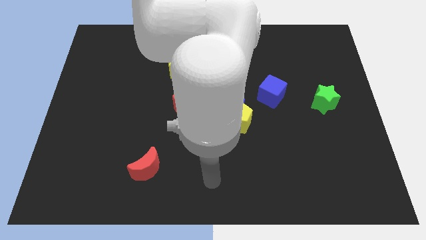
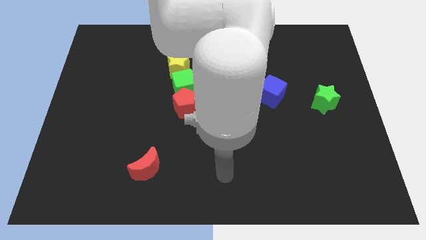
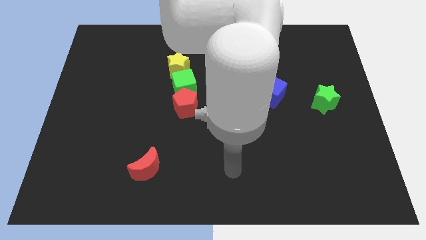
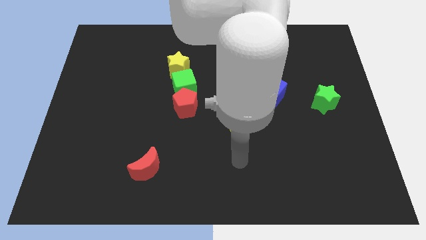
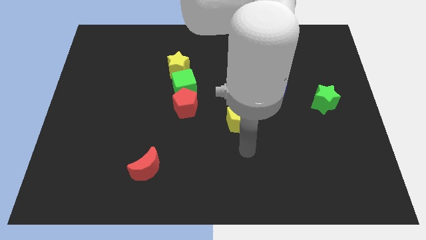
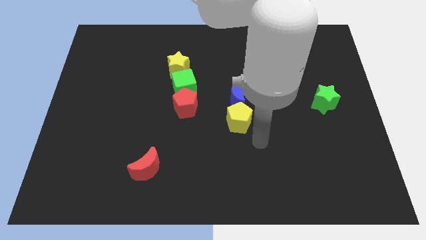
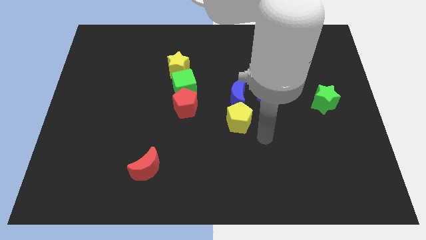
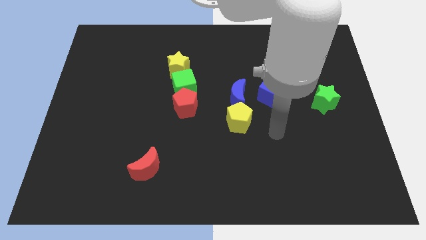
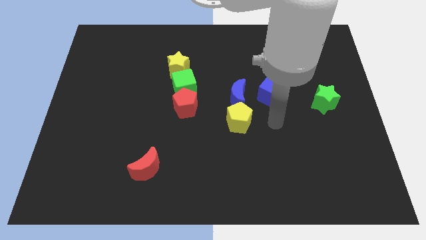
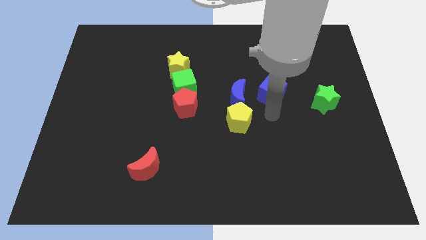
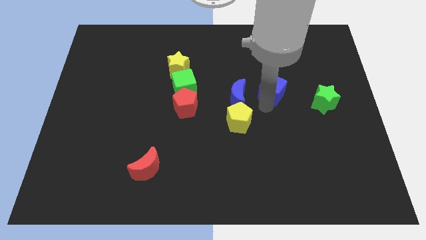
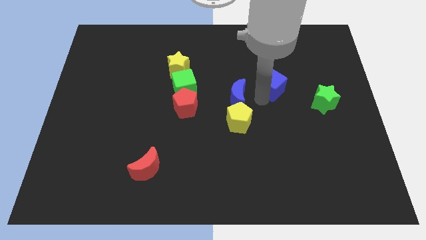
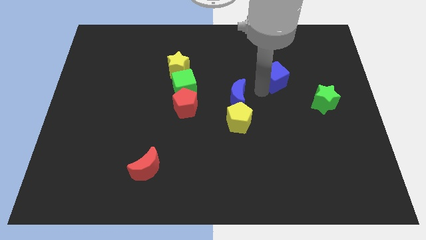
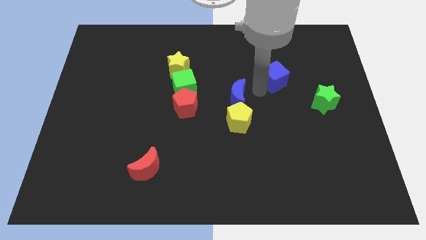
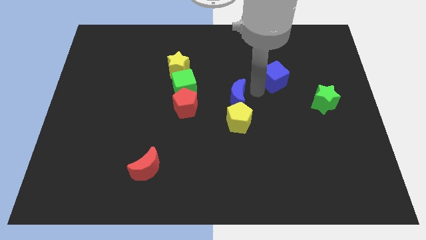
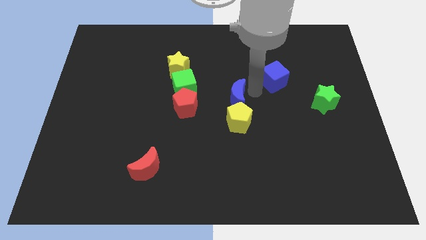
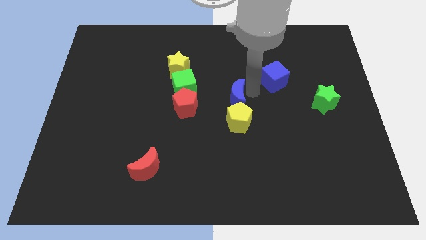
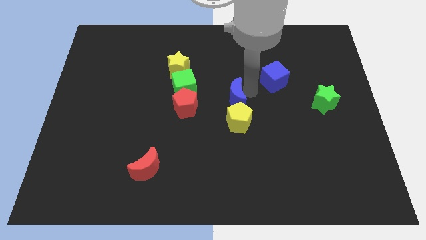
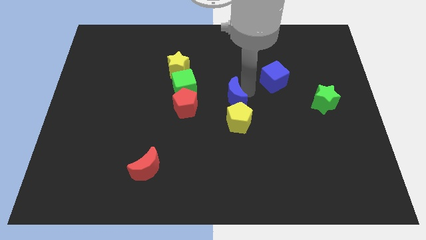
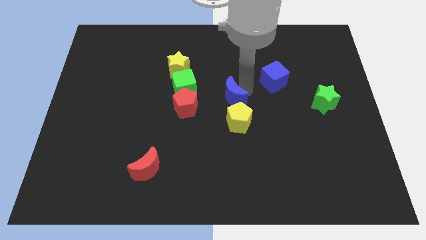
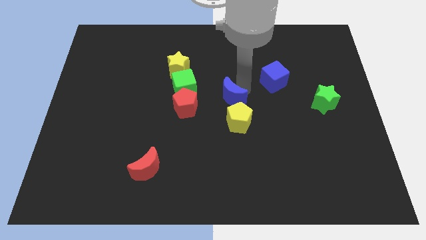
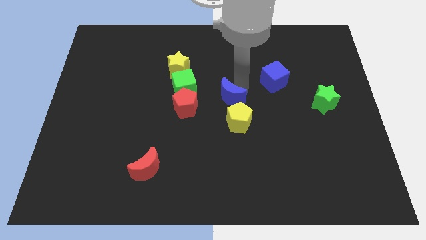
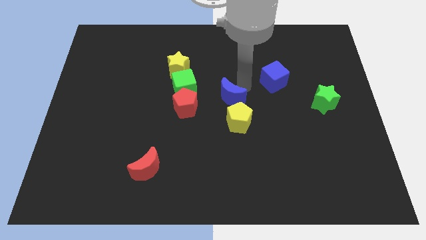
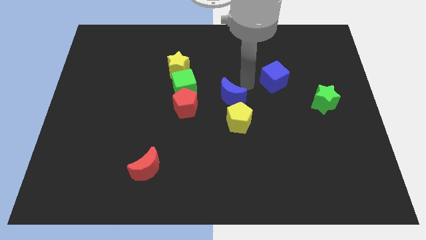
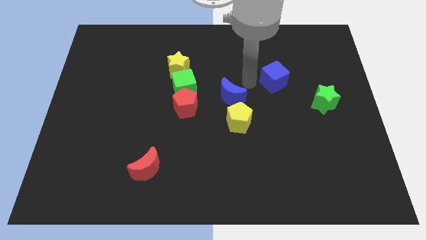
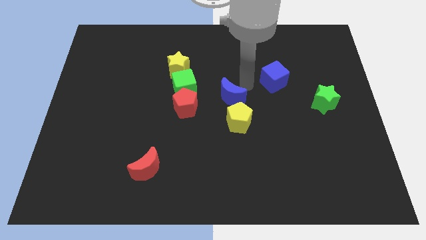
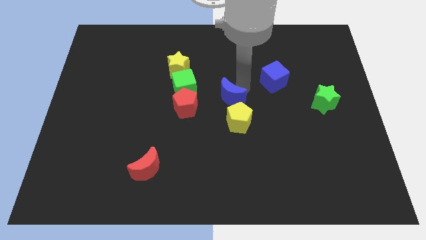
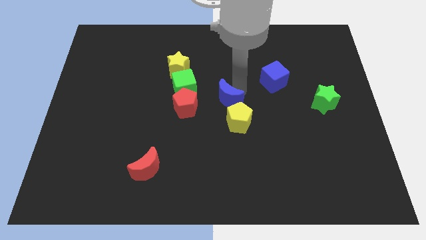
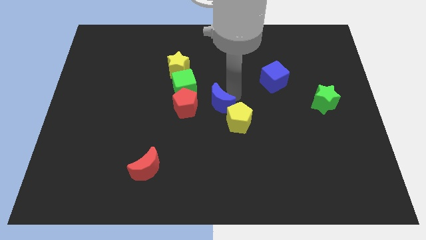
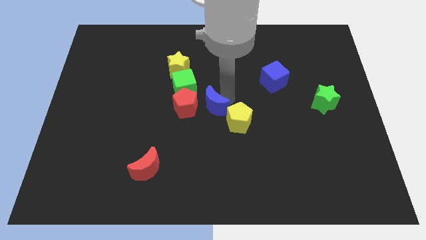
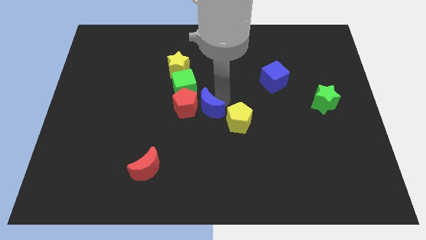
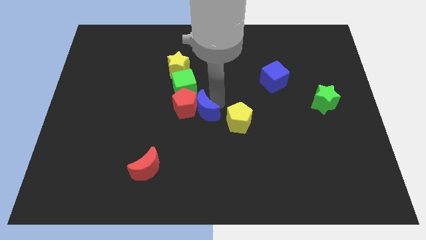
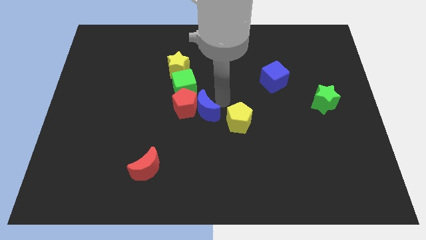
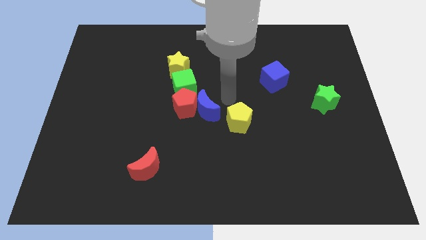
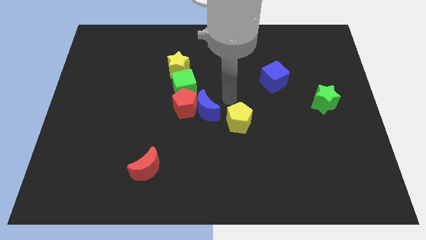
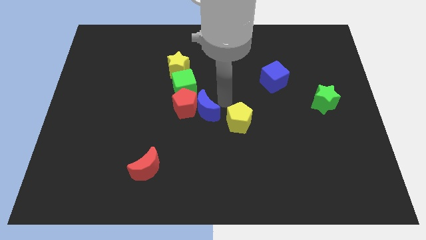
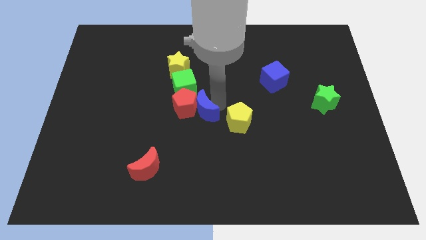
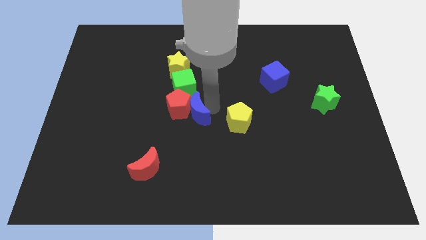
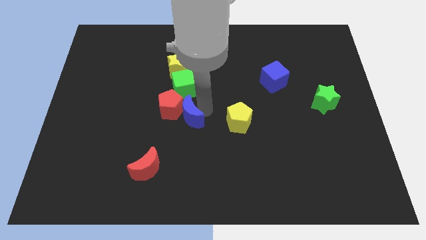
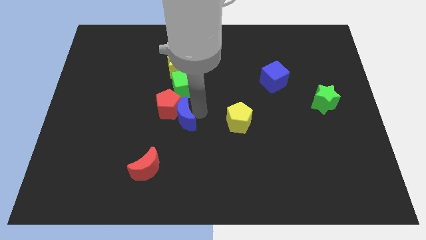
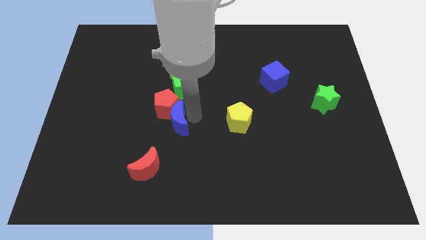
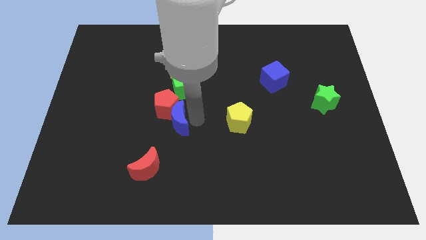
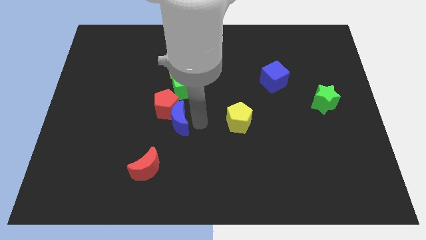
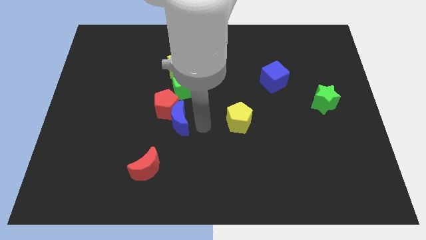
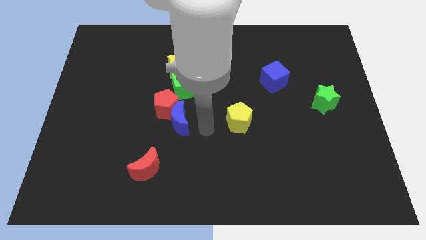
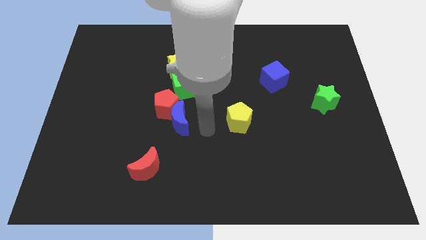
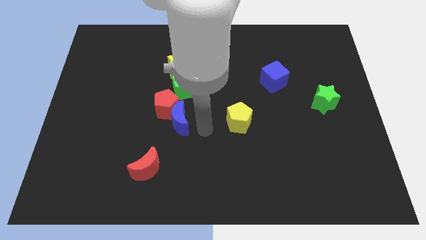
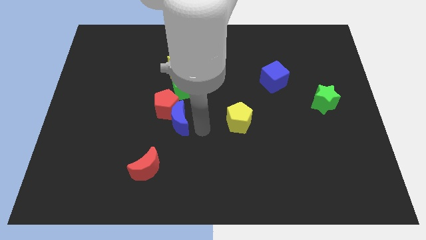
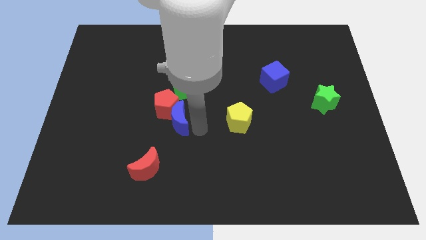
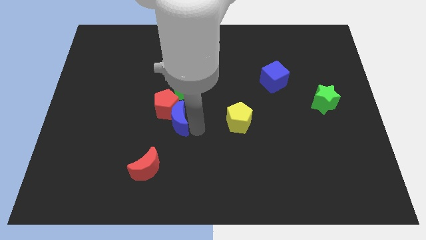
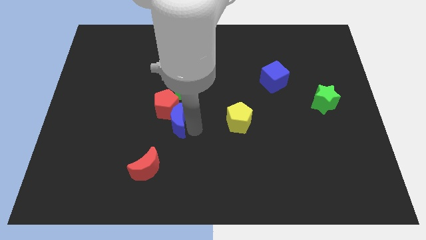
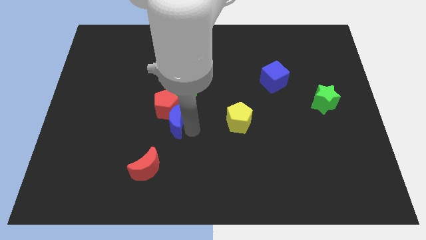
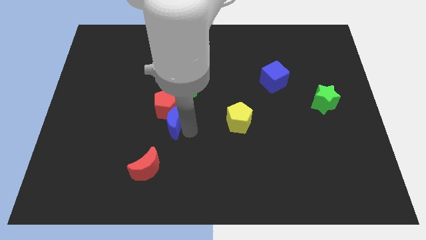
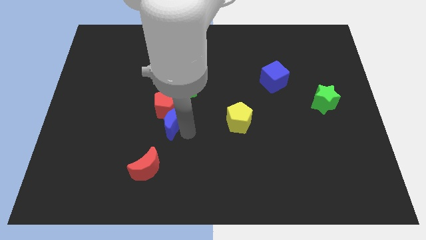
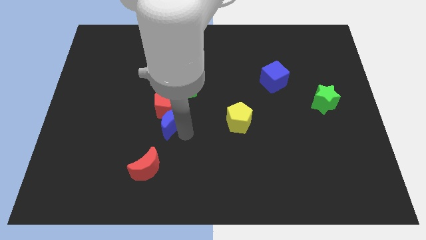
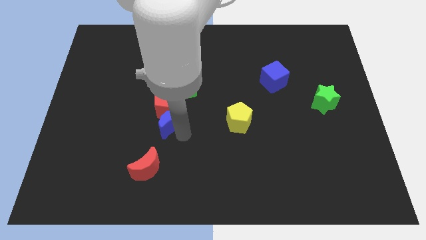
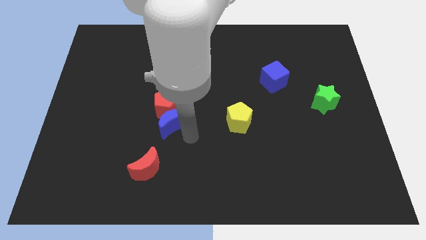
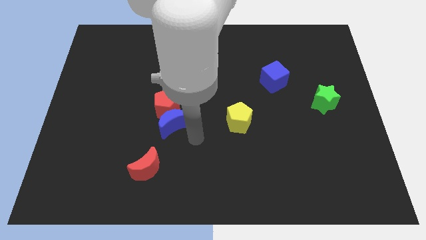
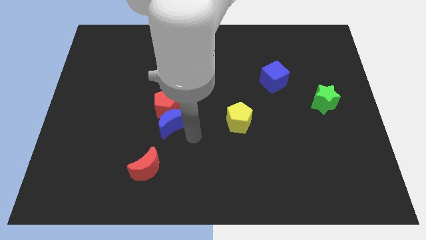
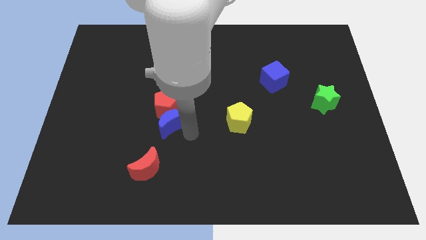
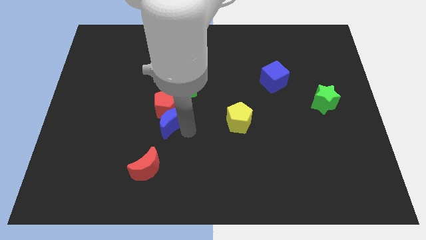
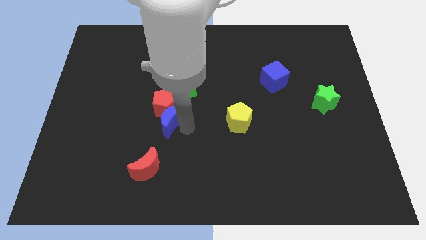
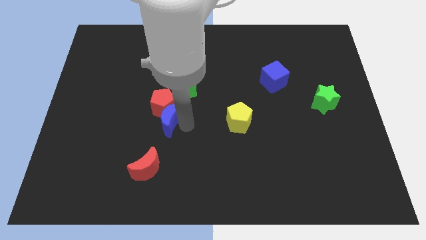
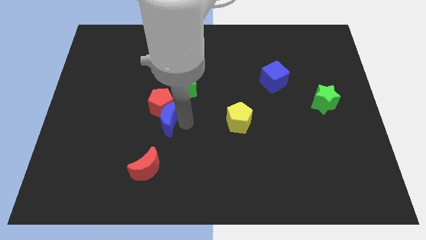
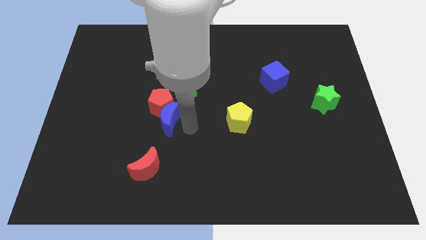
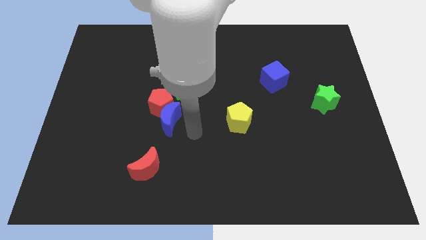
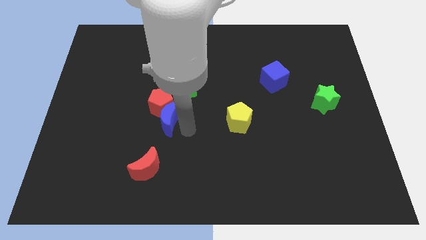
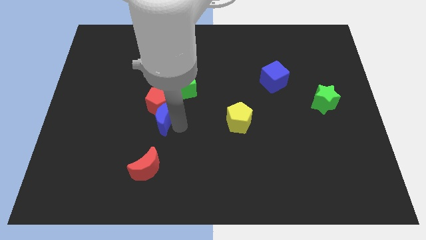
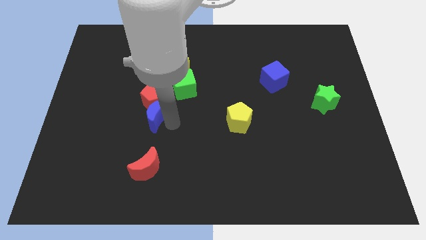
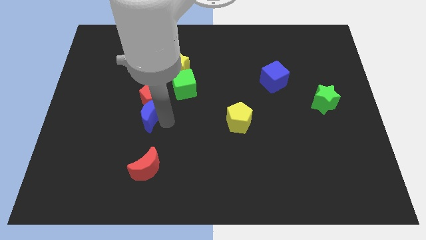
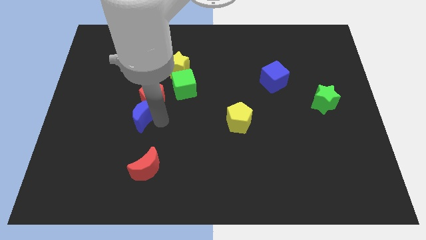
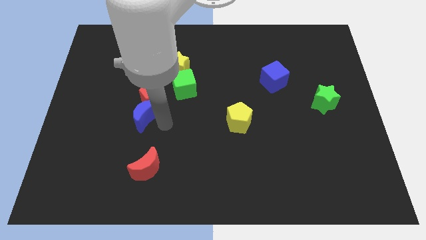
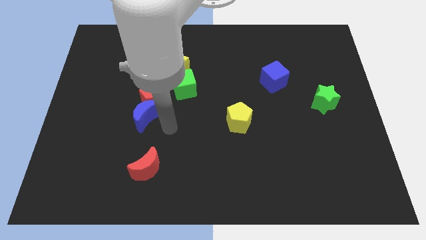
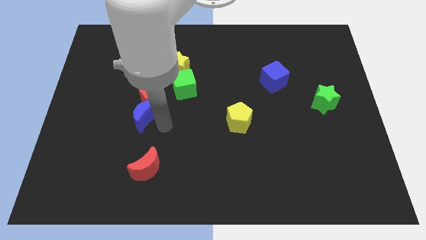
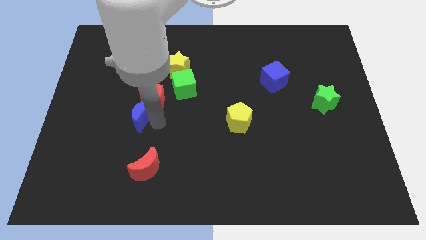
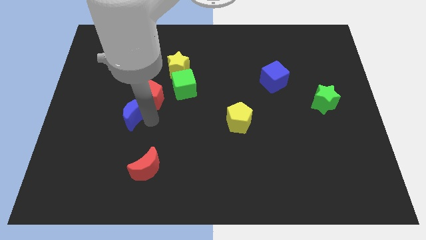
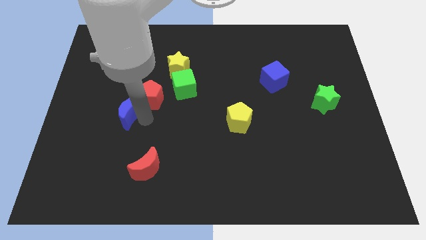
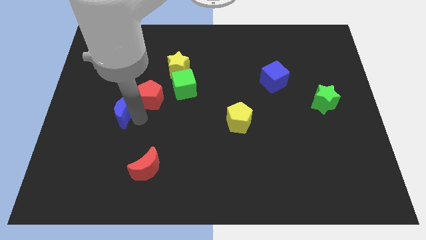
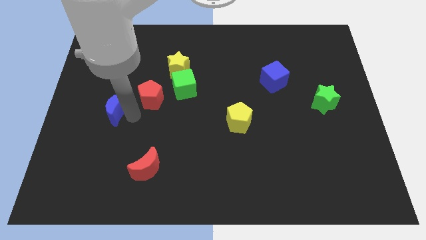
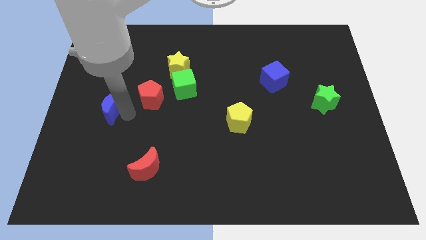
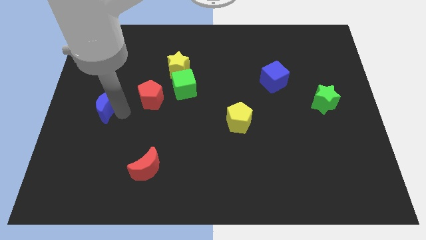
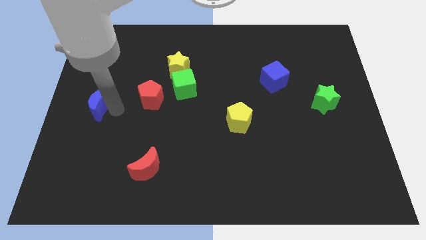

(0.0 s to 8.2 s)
slide the blue moon to the left side
